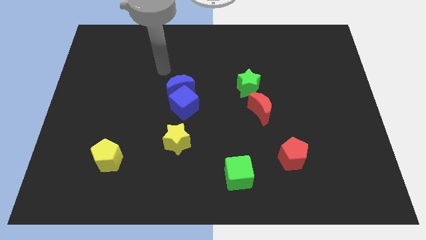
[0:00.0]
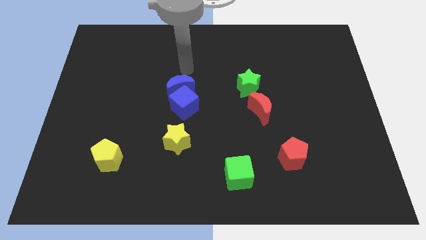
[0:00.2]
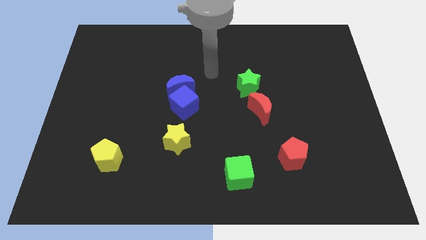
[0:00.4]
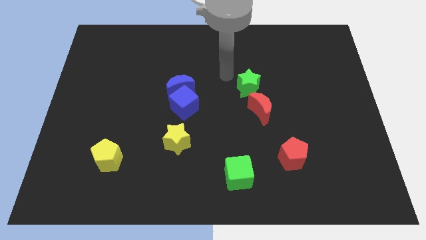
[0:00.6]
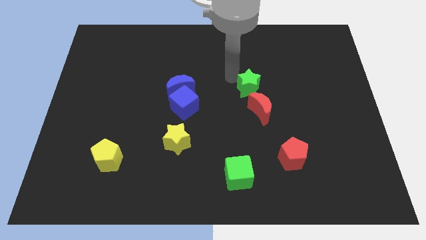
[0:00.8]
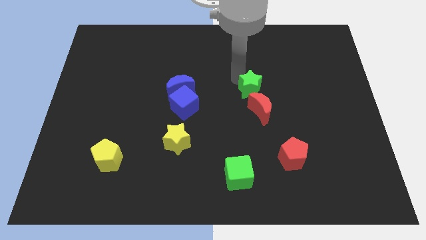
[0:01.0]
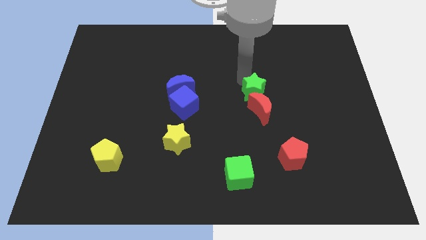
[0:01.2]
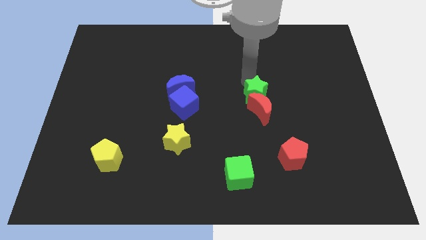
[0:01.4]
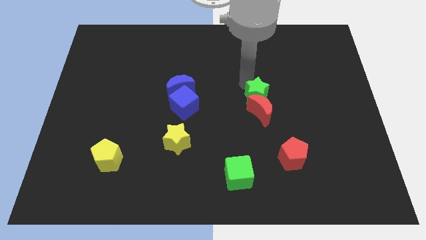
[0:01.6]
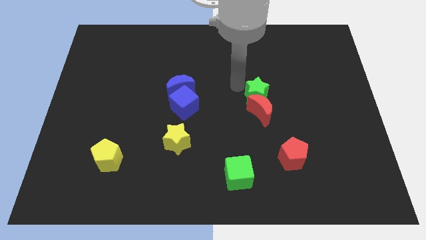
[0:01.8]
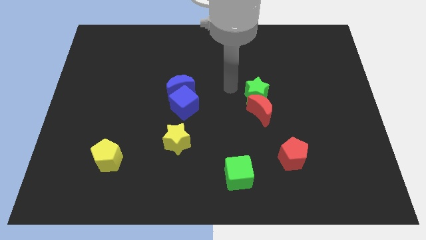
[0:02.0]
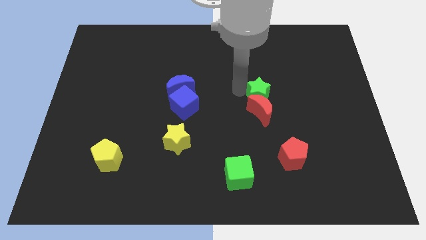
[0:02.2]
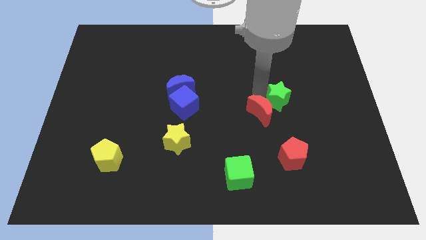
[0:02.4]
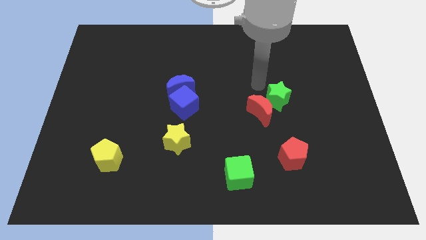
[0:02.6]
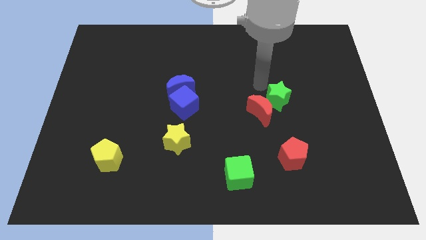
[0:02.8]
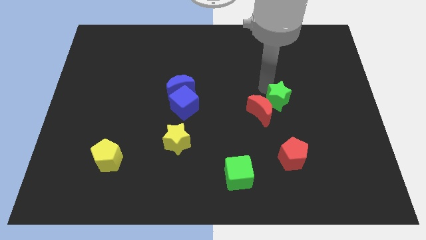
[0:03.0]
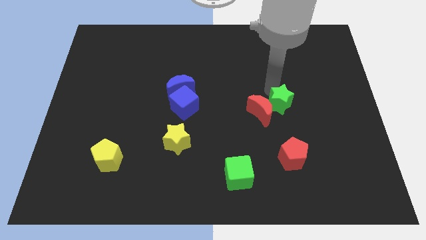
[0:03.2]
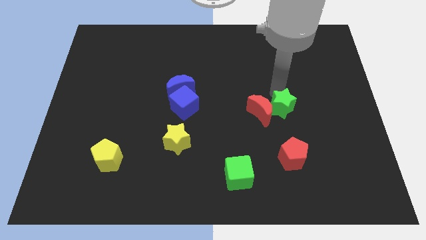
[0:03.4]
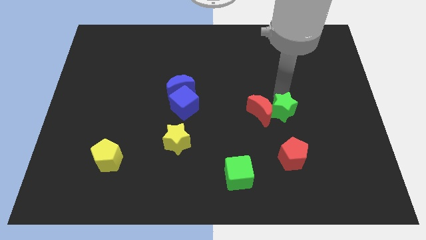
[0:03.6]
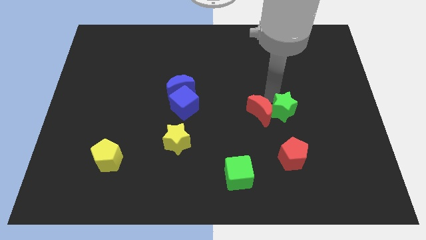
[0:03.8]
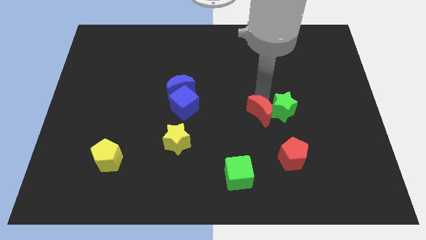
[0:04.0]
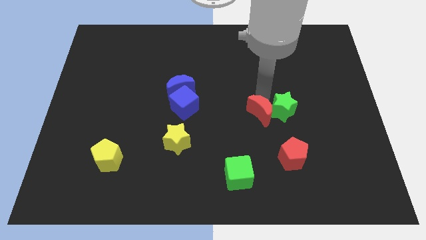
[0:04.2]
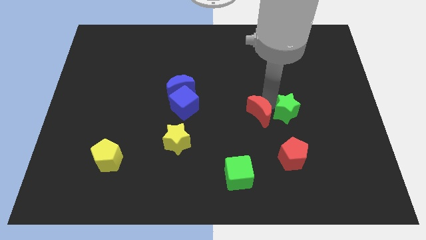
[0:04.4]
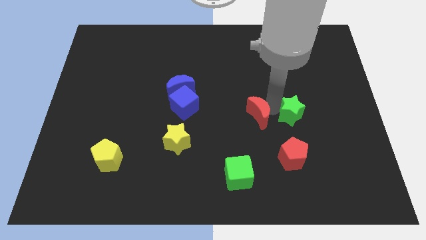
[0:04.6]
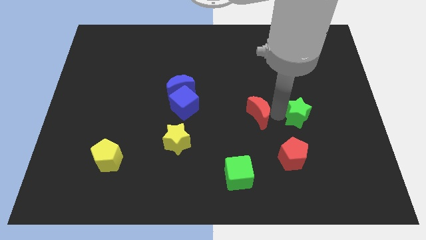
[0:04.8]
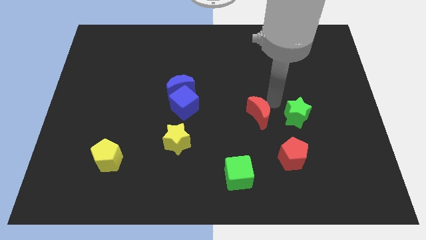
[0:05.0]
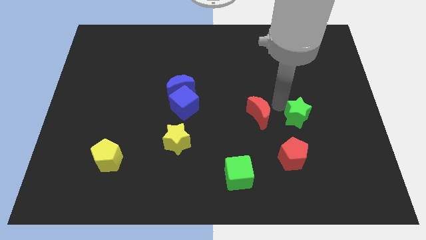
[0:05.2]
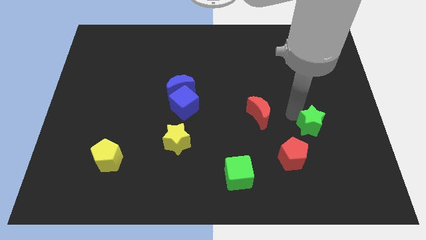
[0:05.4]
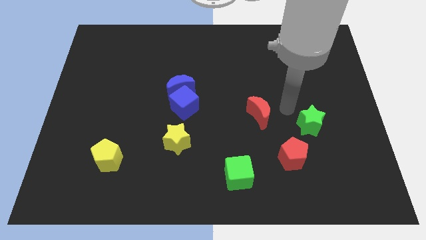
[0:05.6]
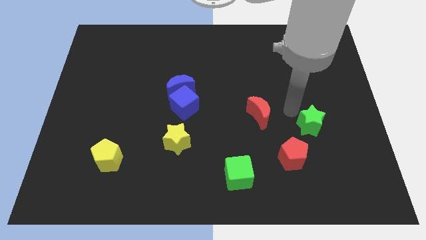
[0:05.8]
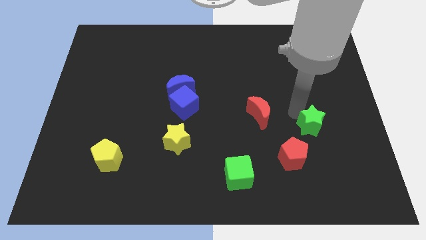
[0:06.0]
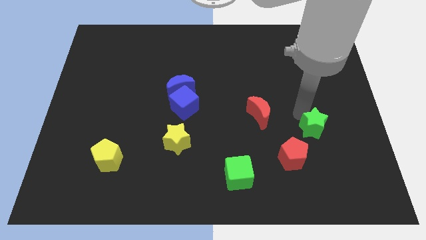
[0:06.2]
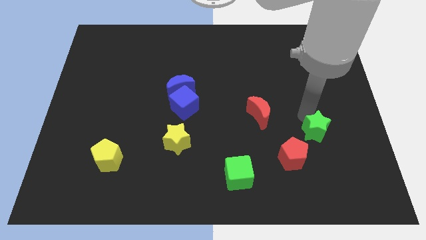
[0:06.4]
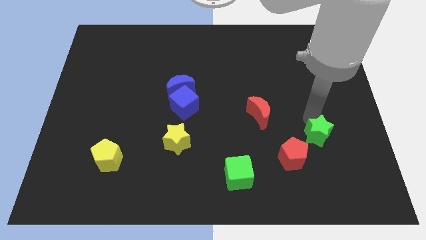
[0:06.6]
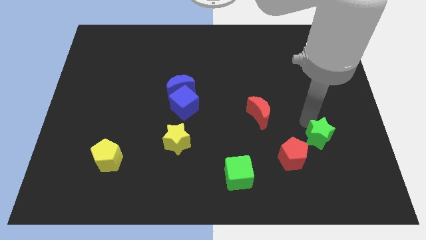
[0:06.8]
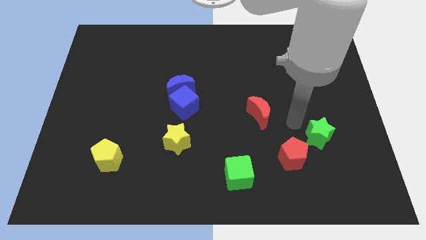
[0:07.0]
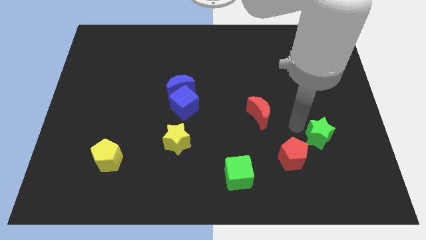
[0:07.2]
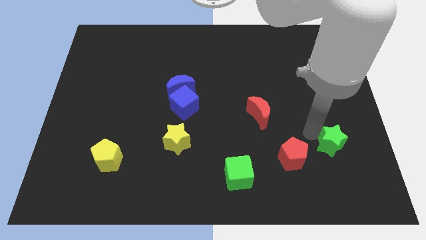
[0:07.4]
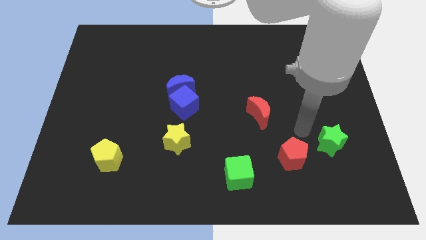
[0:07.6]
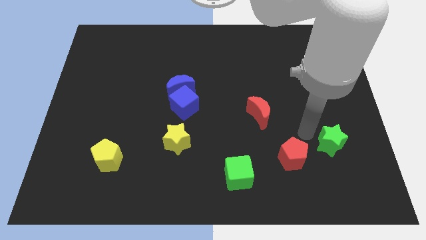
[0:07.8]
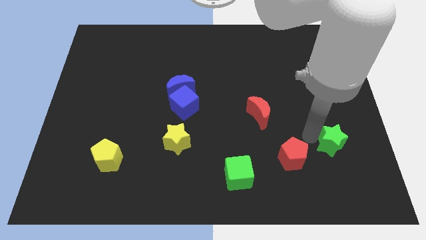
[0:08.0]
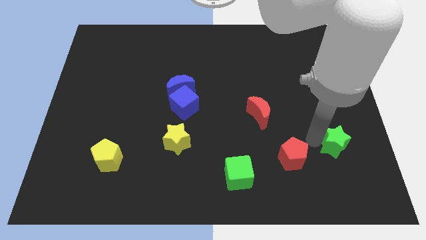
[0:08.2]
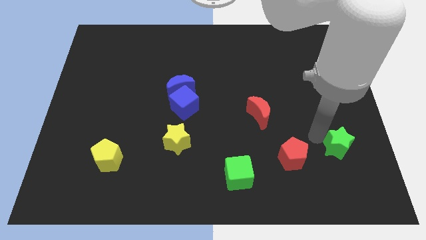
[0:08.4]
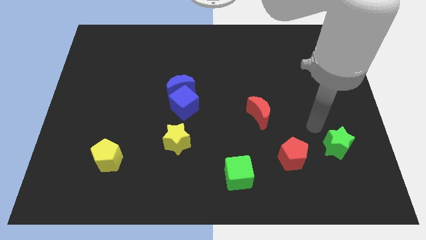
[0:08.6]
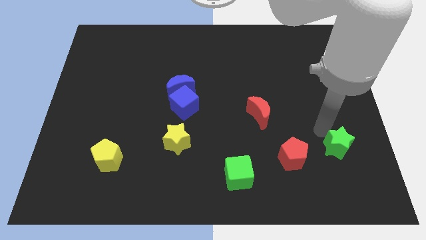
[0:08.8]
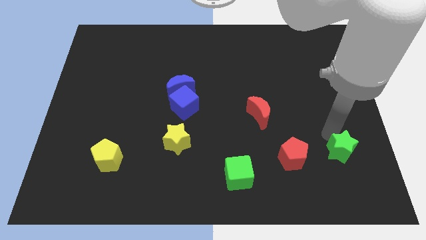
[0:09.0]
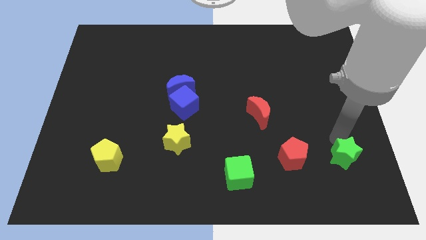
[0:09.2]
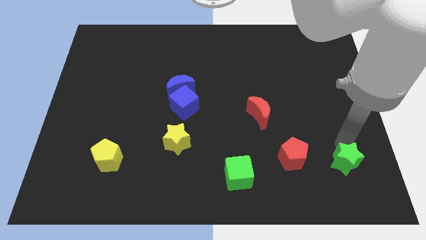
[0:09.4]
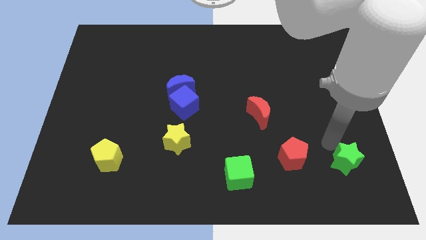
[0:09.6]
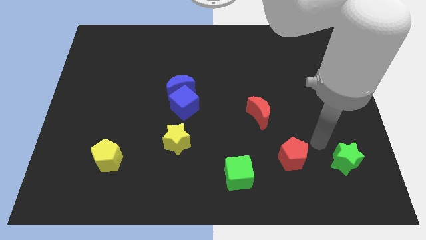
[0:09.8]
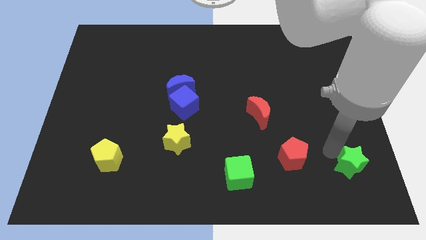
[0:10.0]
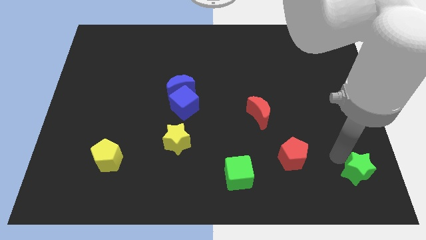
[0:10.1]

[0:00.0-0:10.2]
put the green star to the bottom right of the board

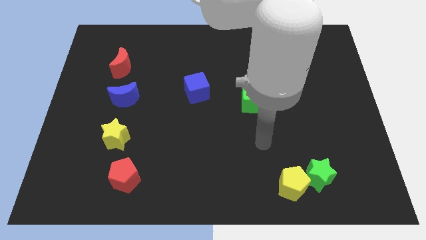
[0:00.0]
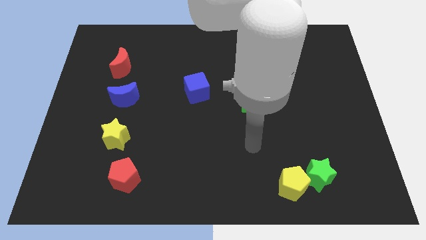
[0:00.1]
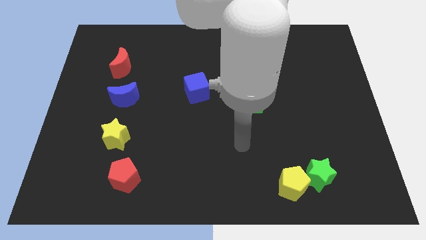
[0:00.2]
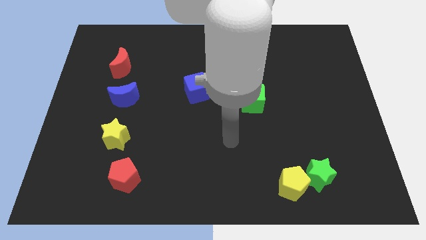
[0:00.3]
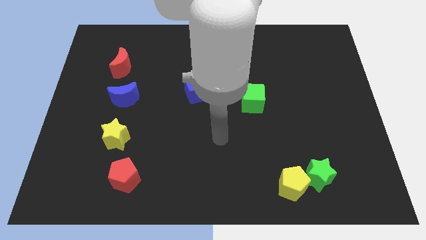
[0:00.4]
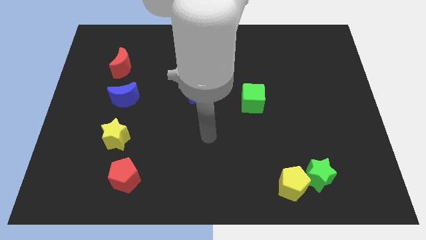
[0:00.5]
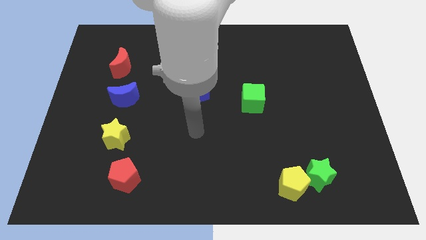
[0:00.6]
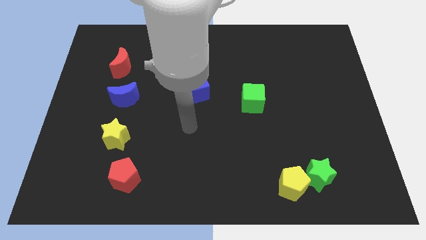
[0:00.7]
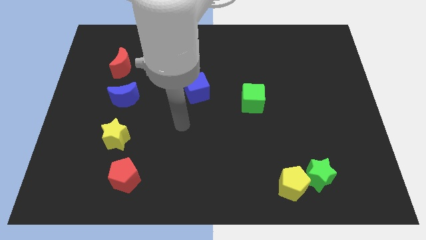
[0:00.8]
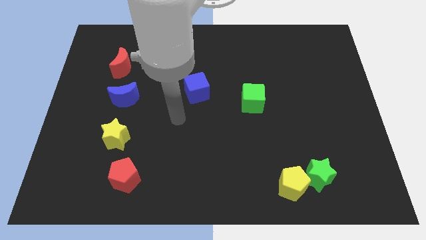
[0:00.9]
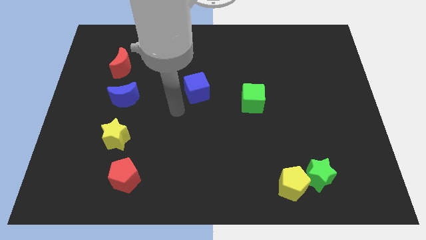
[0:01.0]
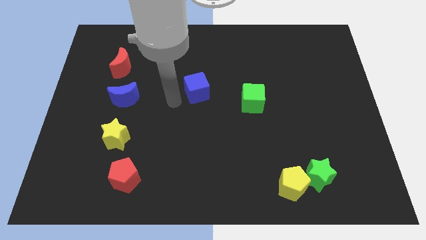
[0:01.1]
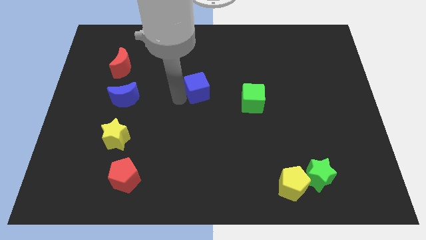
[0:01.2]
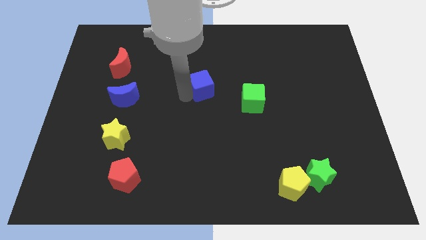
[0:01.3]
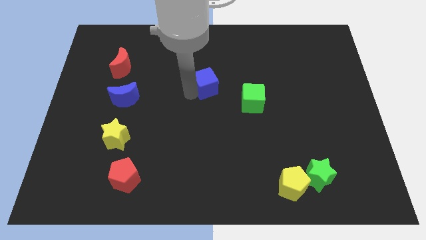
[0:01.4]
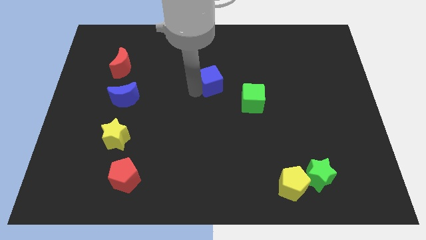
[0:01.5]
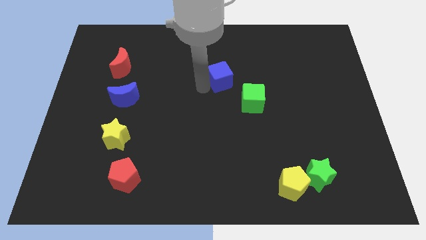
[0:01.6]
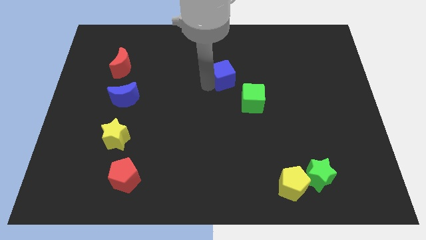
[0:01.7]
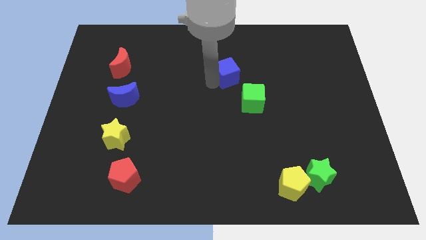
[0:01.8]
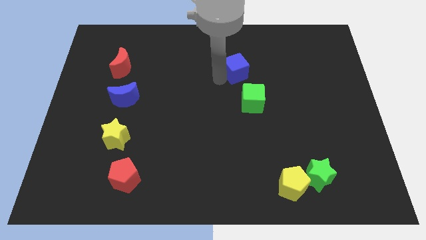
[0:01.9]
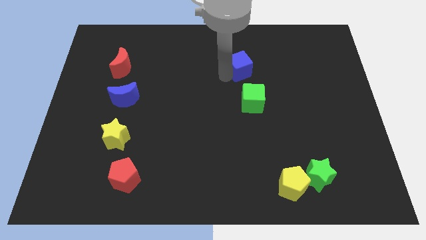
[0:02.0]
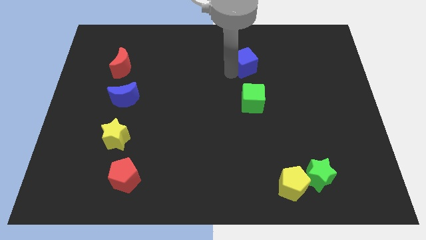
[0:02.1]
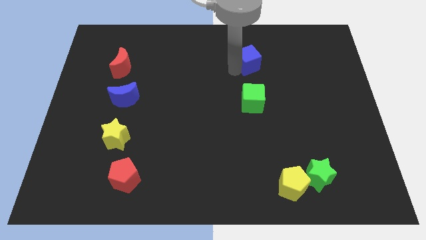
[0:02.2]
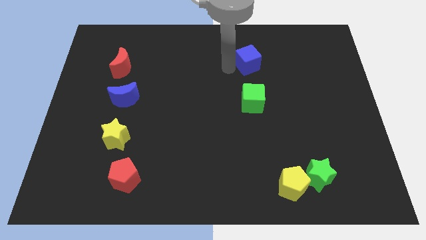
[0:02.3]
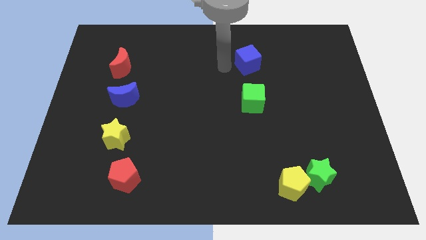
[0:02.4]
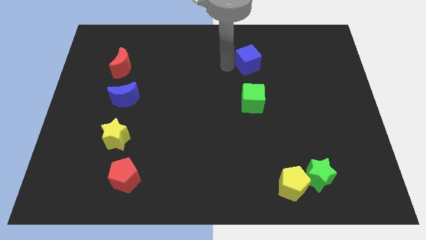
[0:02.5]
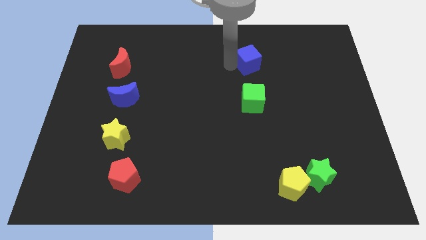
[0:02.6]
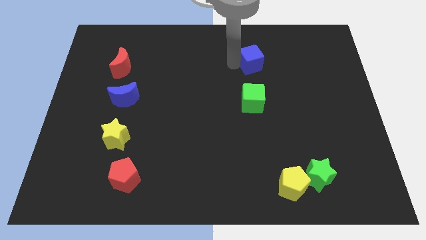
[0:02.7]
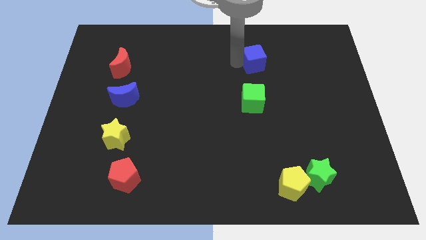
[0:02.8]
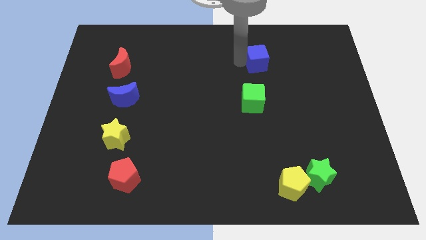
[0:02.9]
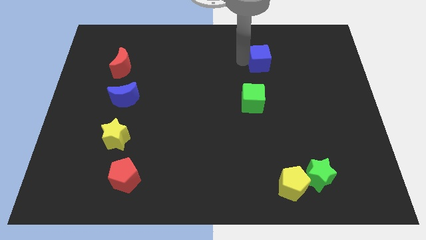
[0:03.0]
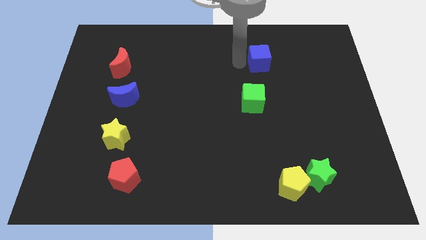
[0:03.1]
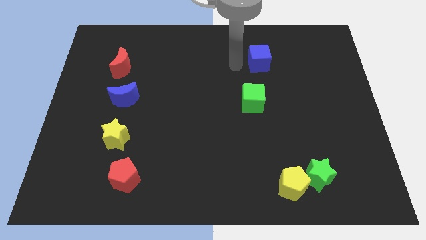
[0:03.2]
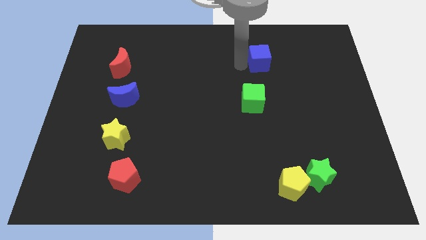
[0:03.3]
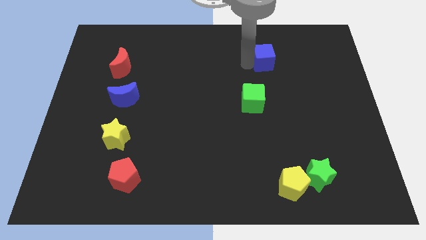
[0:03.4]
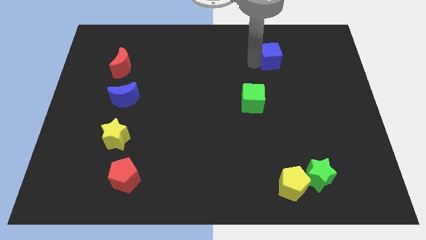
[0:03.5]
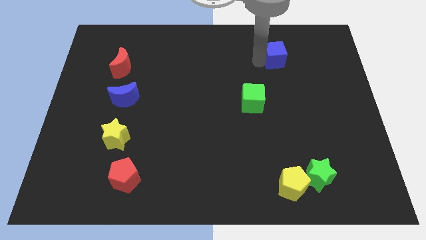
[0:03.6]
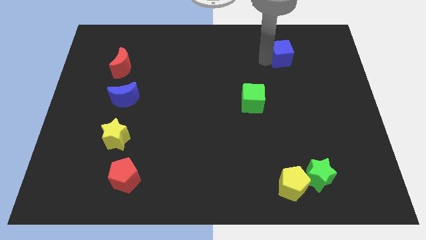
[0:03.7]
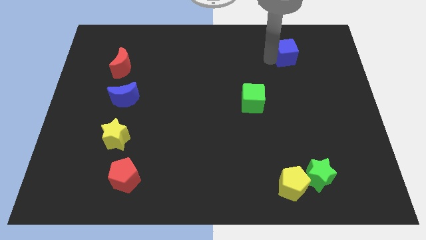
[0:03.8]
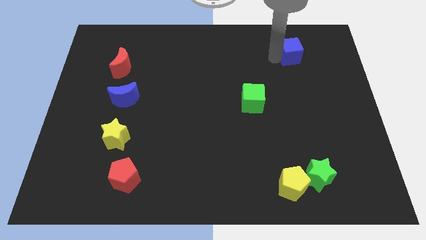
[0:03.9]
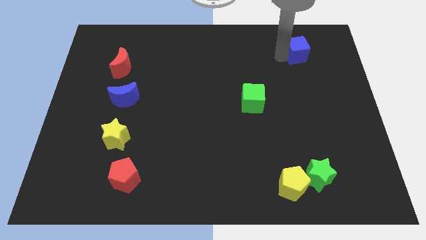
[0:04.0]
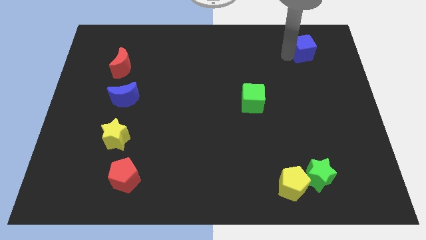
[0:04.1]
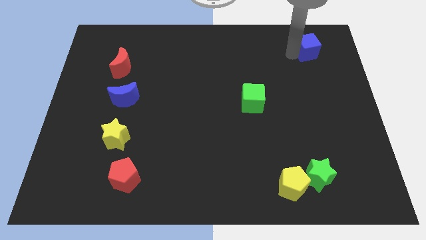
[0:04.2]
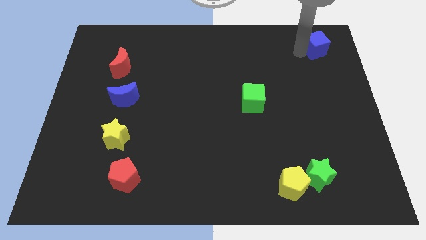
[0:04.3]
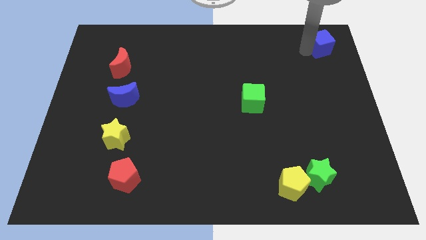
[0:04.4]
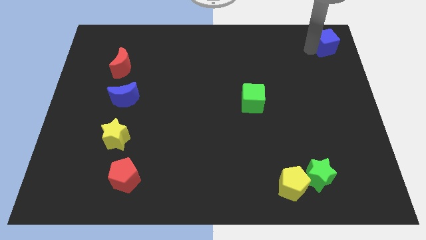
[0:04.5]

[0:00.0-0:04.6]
move the blue cube to the top right
